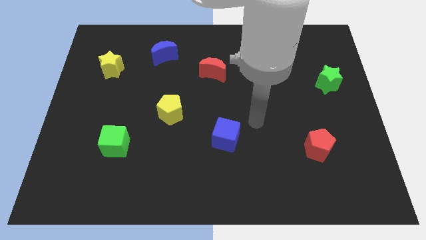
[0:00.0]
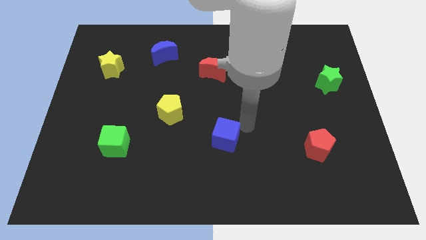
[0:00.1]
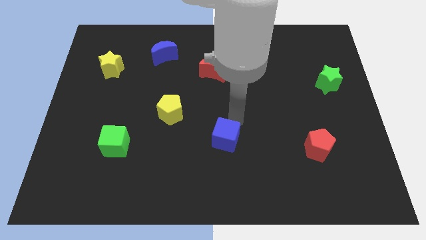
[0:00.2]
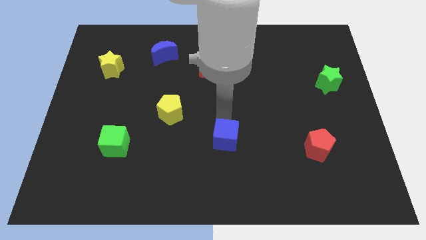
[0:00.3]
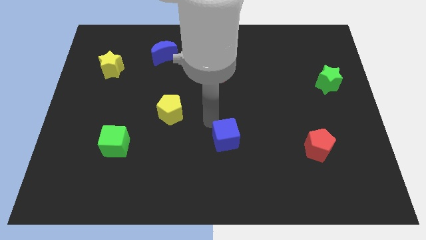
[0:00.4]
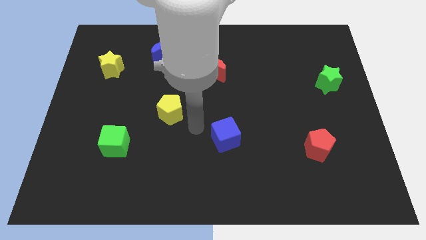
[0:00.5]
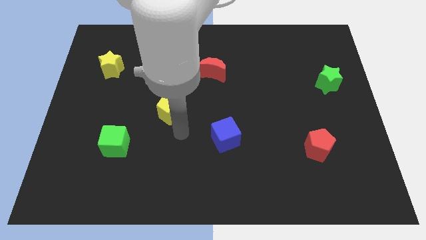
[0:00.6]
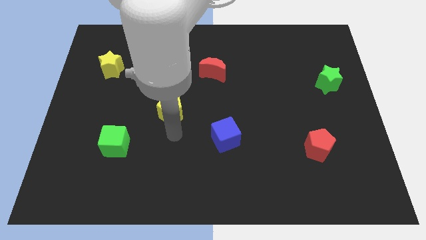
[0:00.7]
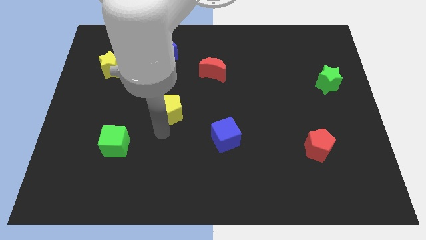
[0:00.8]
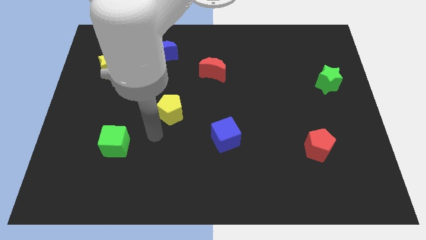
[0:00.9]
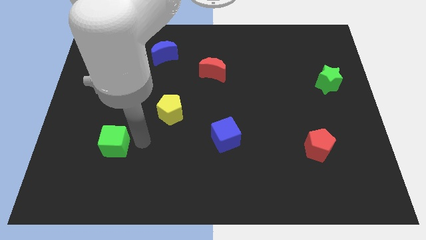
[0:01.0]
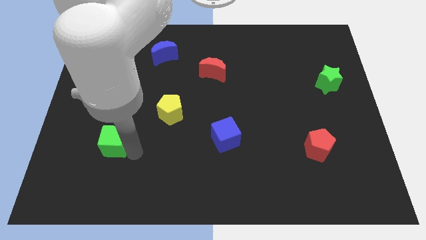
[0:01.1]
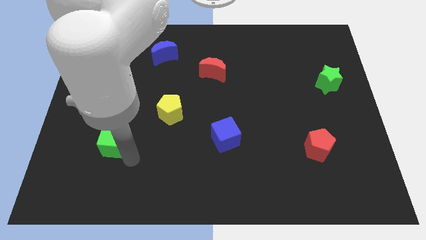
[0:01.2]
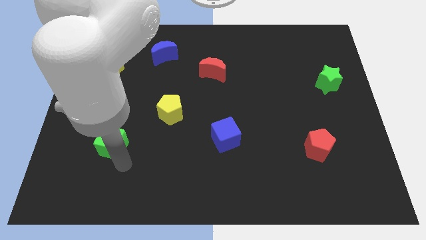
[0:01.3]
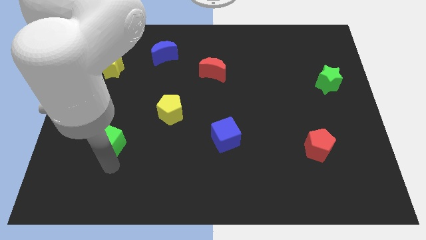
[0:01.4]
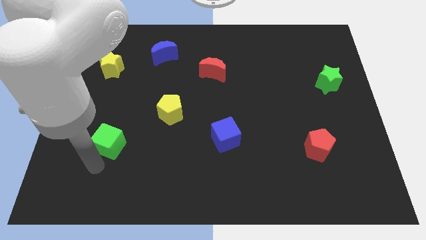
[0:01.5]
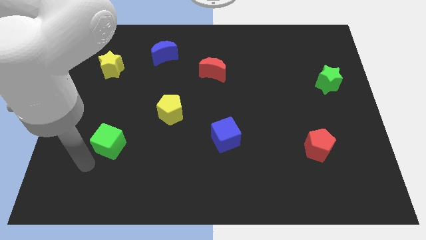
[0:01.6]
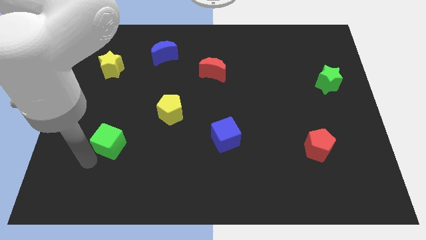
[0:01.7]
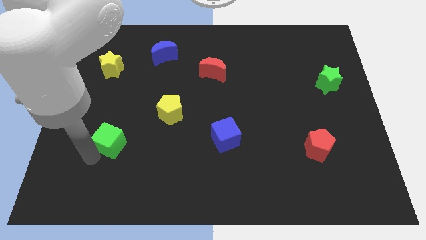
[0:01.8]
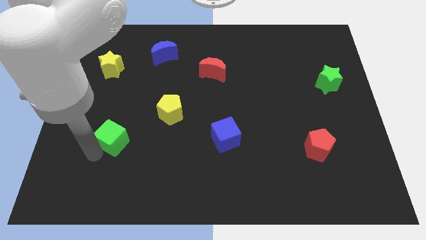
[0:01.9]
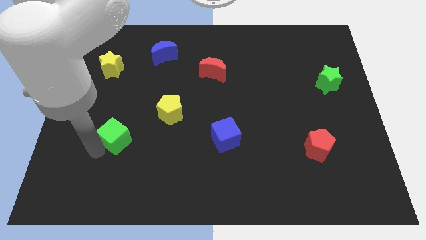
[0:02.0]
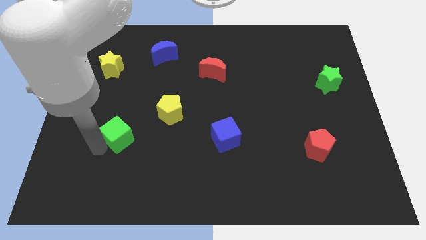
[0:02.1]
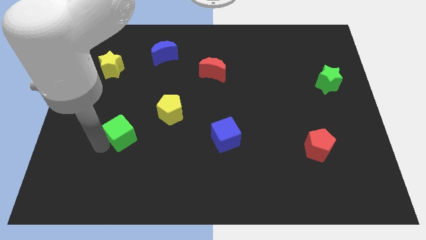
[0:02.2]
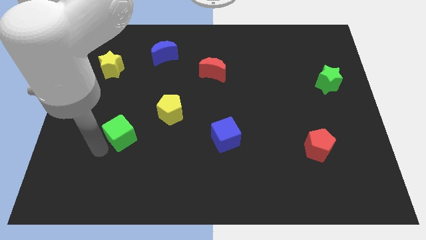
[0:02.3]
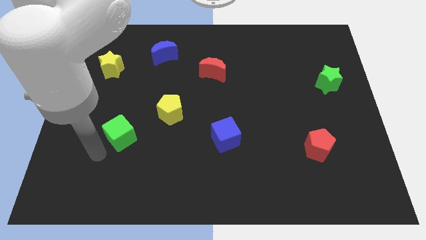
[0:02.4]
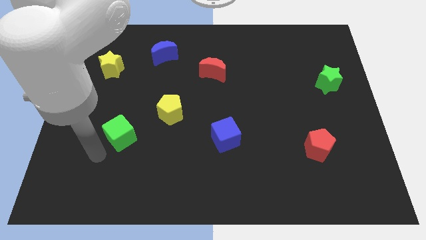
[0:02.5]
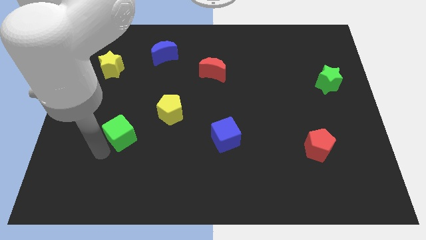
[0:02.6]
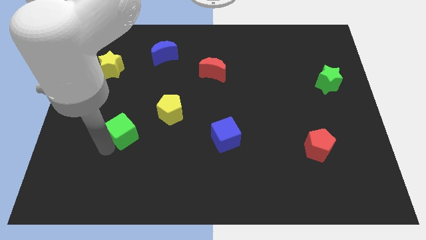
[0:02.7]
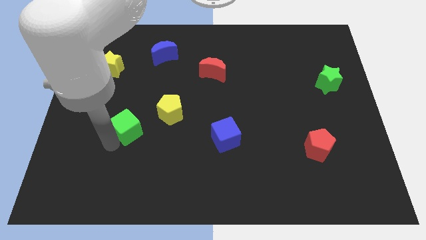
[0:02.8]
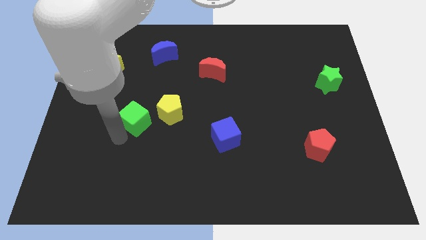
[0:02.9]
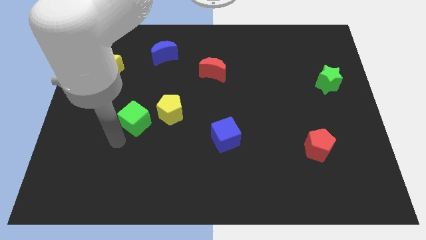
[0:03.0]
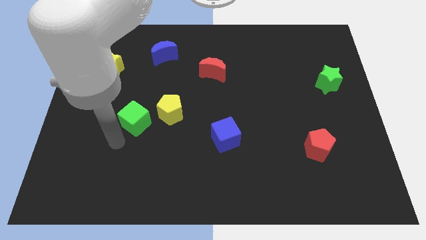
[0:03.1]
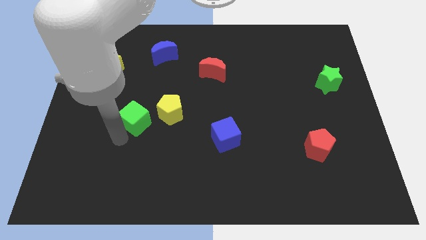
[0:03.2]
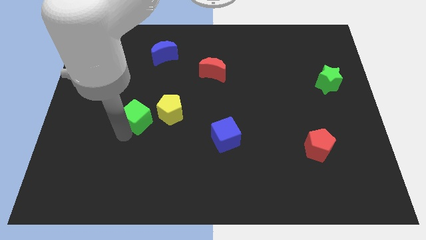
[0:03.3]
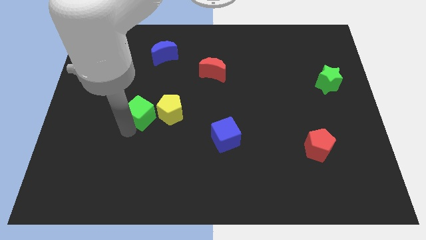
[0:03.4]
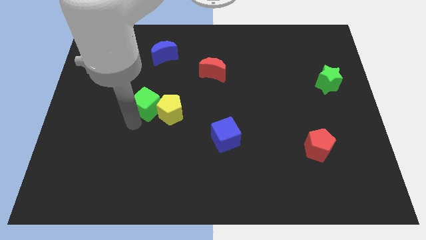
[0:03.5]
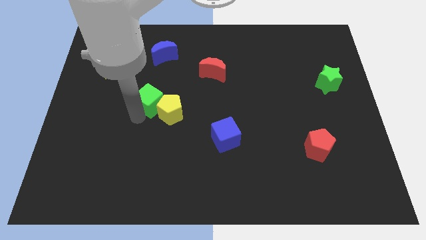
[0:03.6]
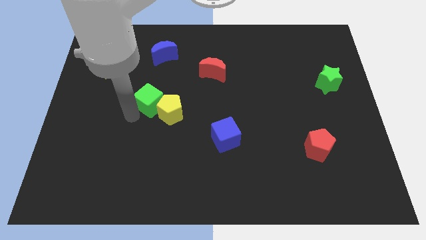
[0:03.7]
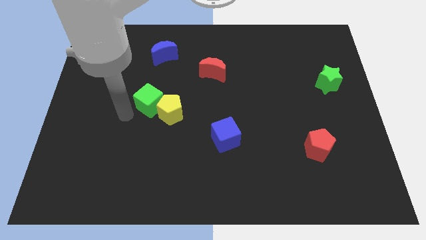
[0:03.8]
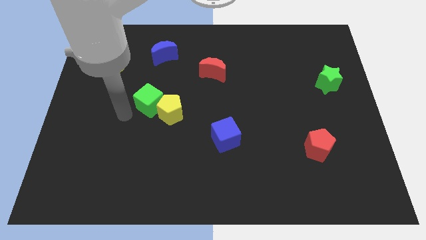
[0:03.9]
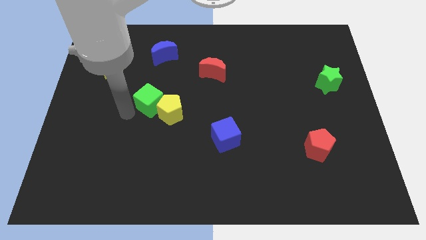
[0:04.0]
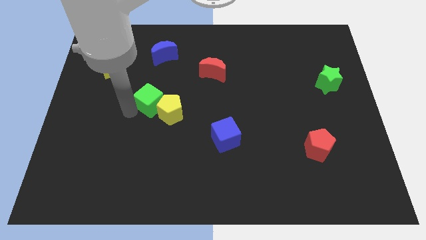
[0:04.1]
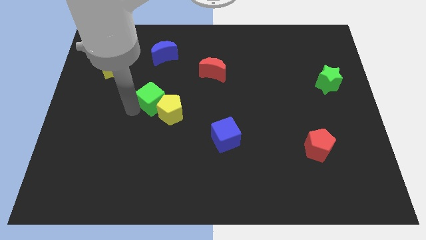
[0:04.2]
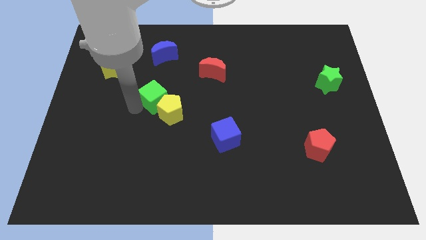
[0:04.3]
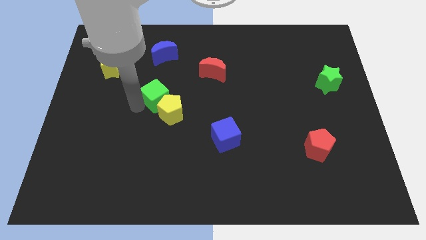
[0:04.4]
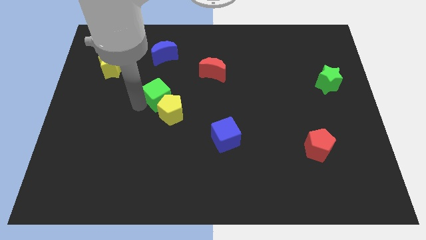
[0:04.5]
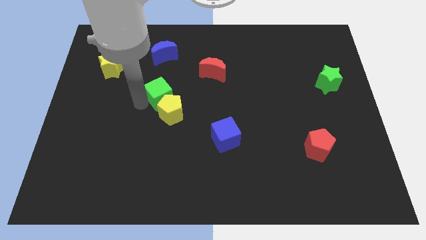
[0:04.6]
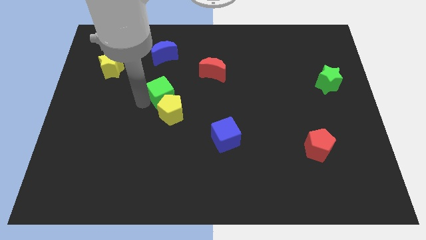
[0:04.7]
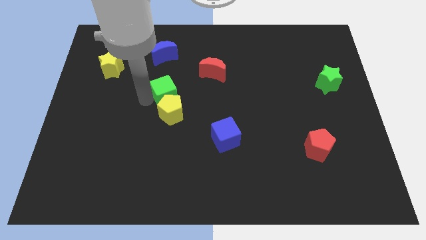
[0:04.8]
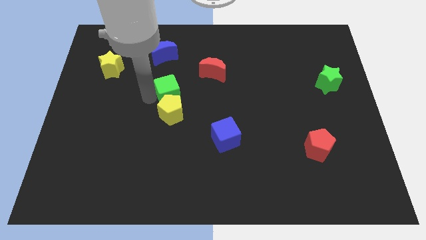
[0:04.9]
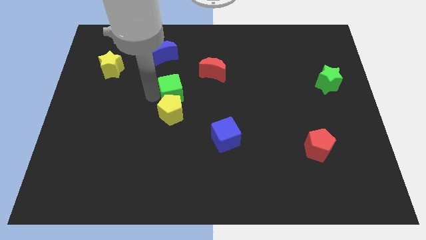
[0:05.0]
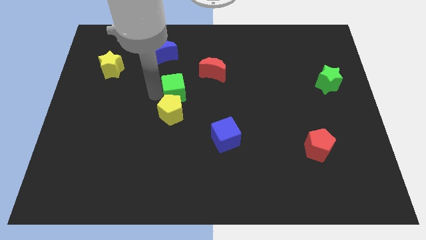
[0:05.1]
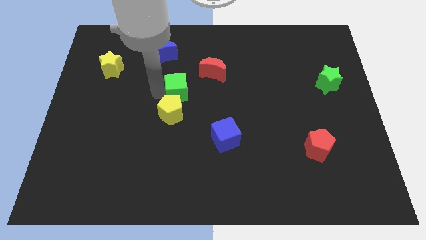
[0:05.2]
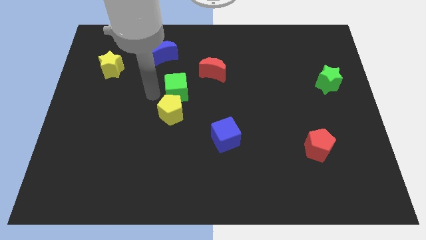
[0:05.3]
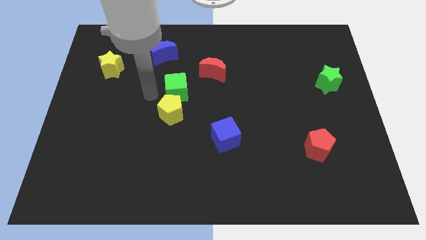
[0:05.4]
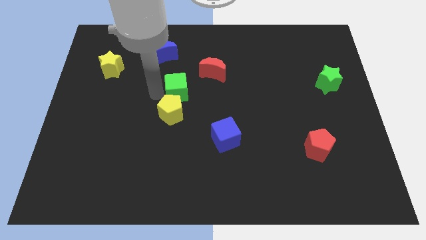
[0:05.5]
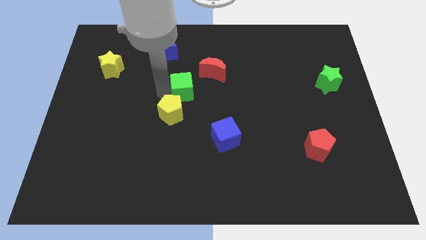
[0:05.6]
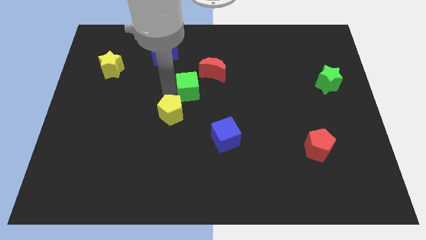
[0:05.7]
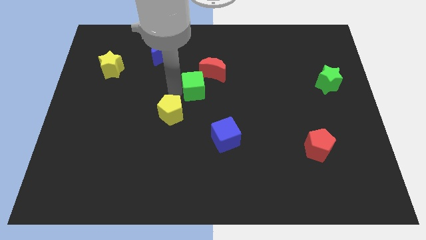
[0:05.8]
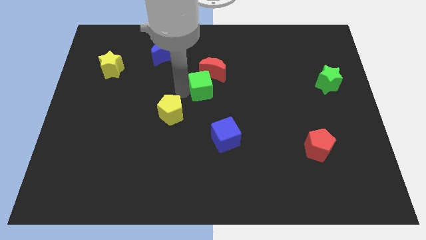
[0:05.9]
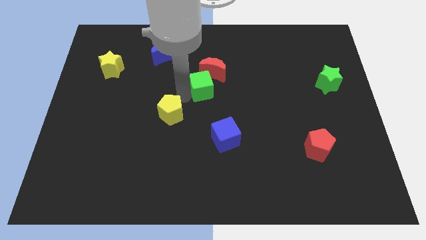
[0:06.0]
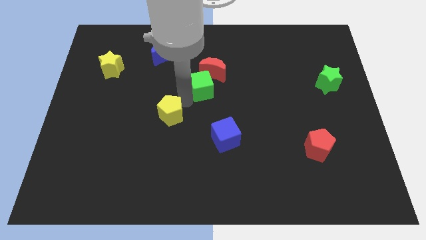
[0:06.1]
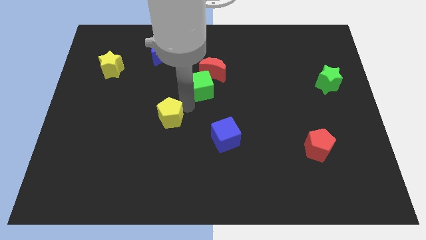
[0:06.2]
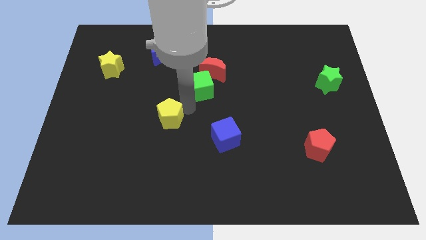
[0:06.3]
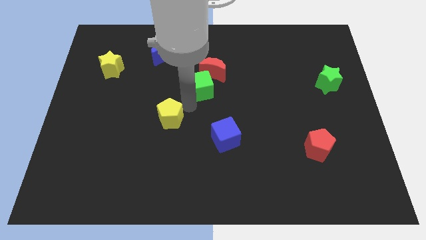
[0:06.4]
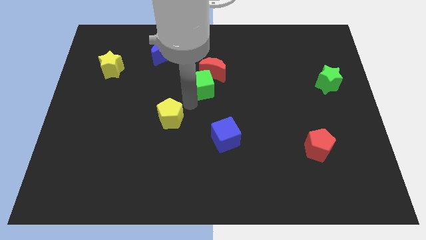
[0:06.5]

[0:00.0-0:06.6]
put the green cube next to the red moon

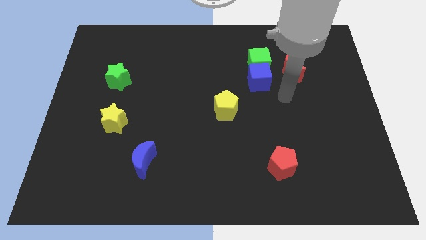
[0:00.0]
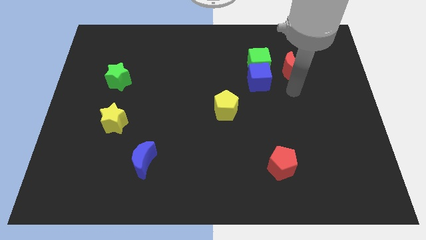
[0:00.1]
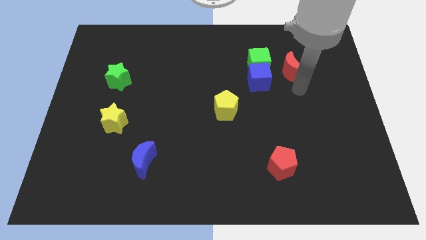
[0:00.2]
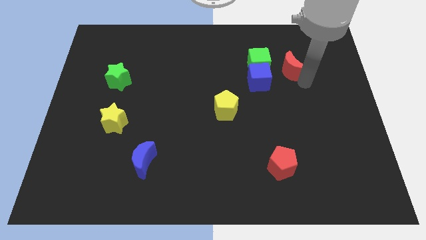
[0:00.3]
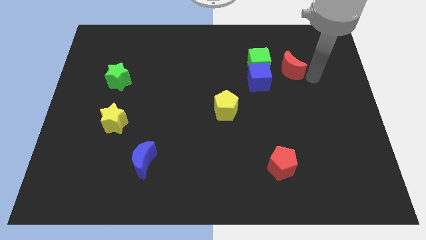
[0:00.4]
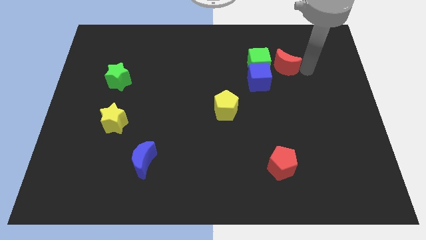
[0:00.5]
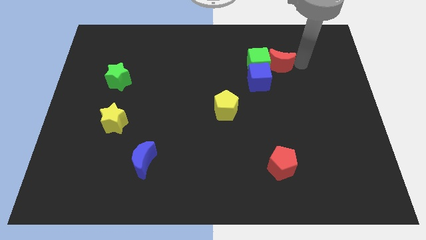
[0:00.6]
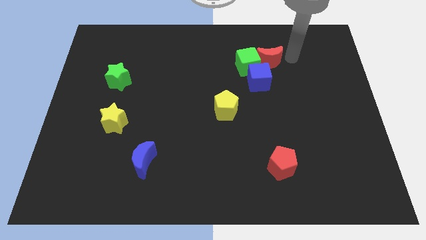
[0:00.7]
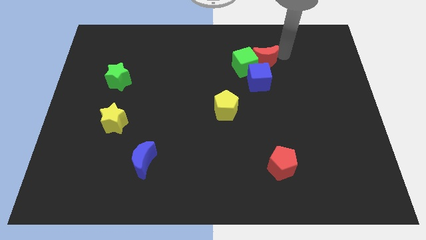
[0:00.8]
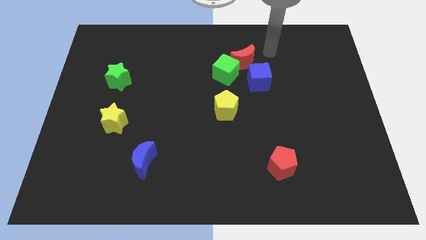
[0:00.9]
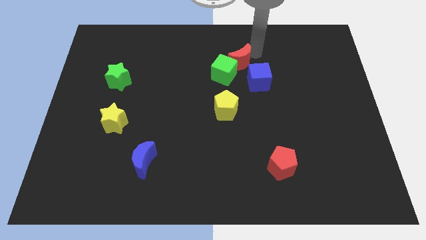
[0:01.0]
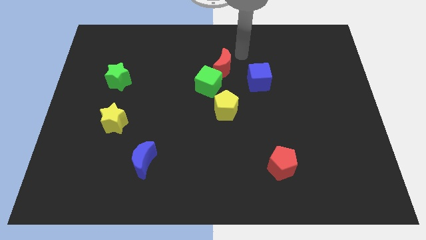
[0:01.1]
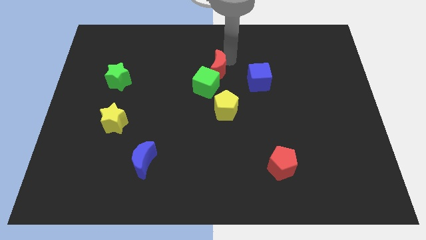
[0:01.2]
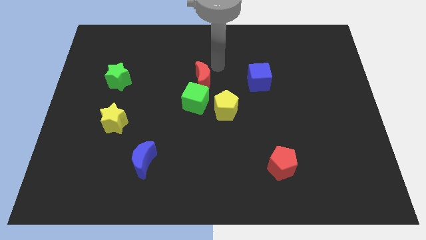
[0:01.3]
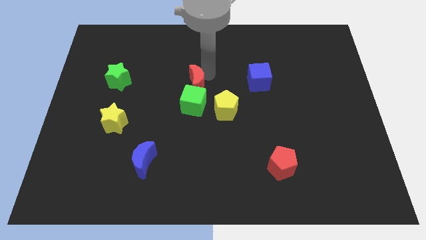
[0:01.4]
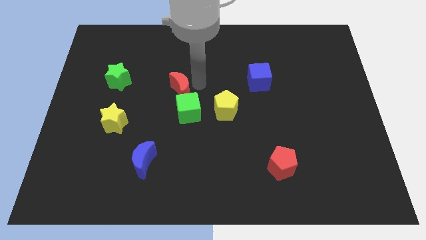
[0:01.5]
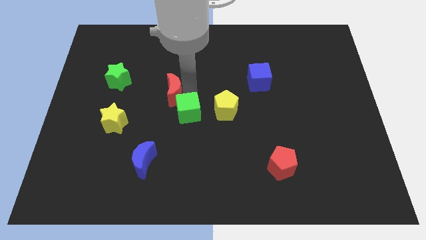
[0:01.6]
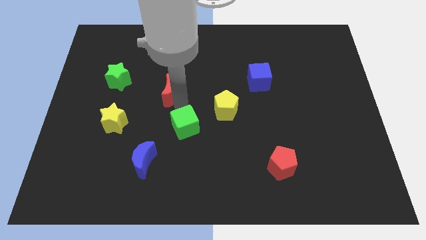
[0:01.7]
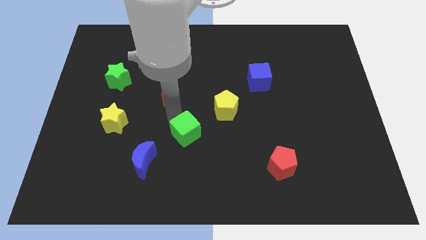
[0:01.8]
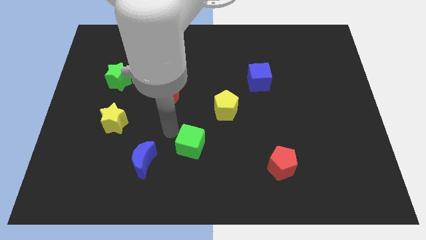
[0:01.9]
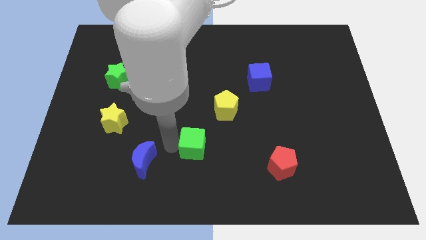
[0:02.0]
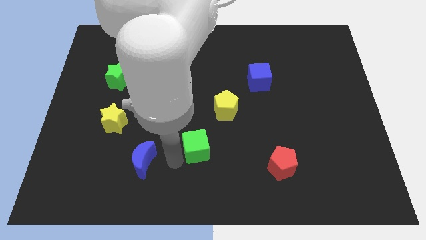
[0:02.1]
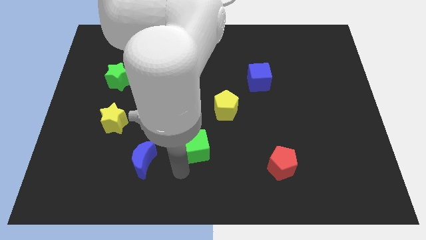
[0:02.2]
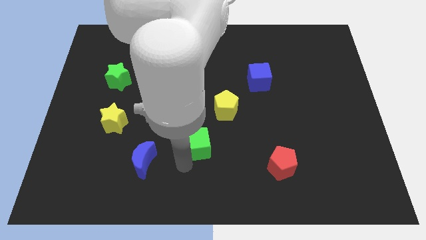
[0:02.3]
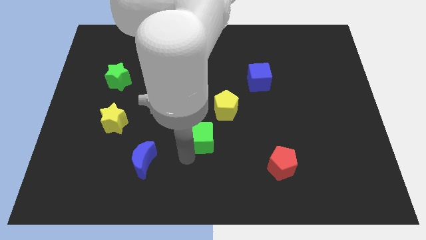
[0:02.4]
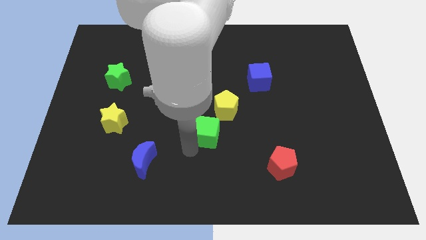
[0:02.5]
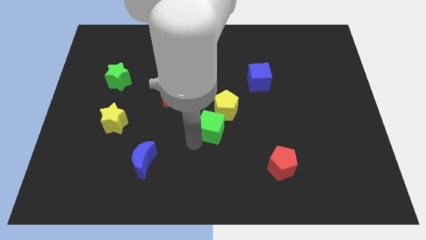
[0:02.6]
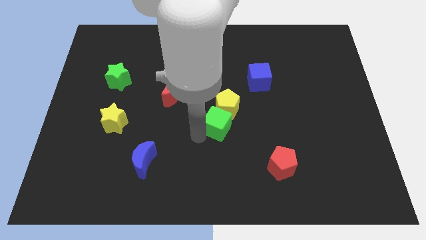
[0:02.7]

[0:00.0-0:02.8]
move the green cube to the yellow pentagon
